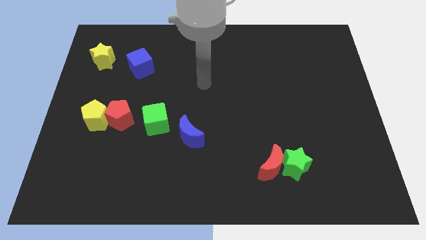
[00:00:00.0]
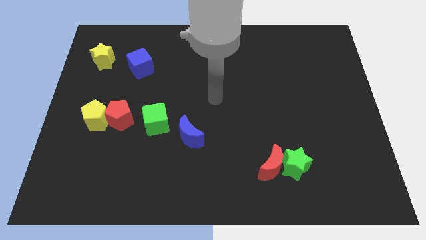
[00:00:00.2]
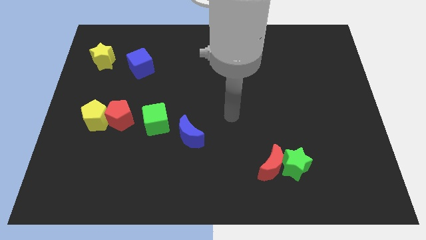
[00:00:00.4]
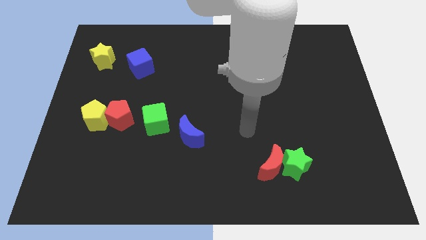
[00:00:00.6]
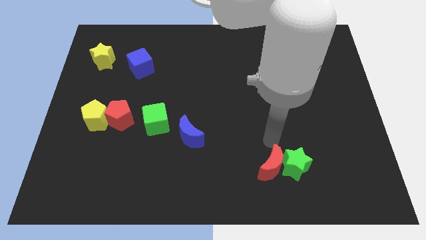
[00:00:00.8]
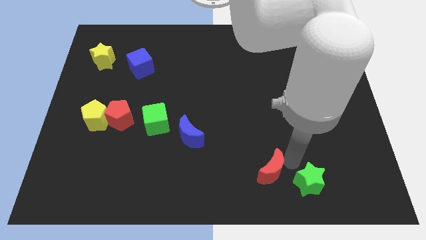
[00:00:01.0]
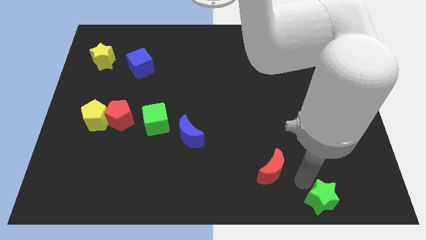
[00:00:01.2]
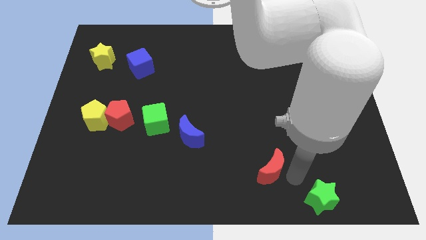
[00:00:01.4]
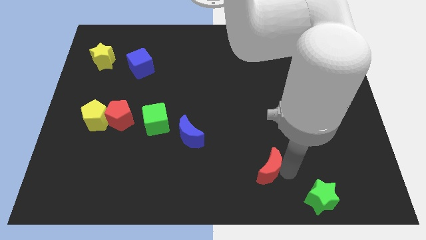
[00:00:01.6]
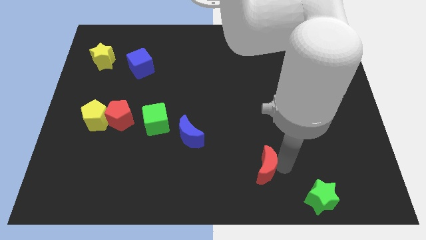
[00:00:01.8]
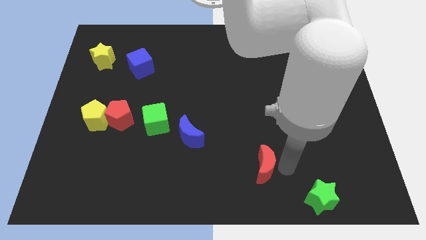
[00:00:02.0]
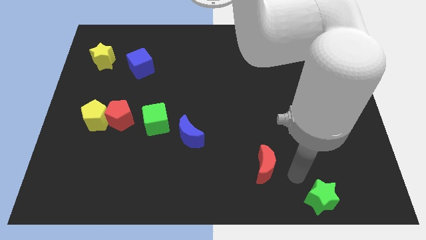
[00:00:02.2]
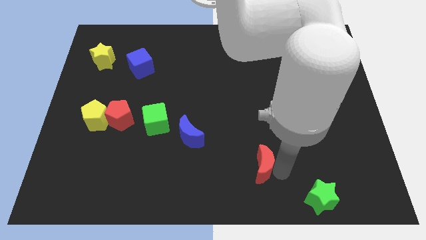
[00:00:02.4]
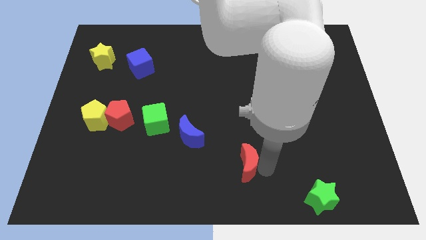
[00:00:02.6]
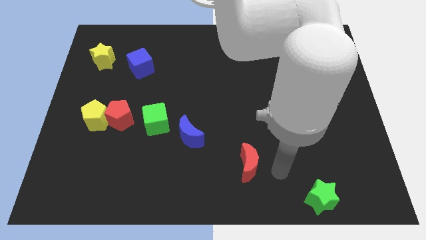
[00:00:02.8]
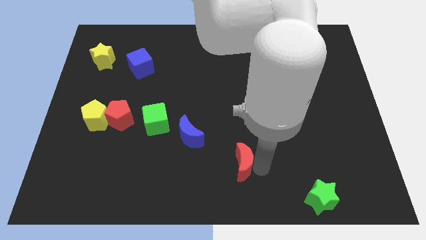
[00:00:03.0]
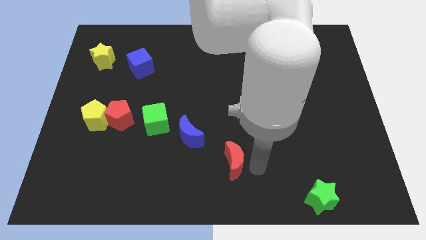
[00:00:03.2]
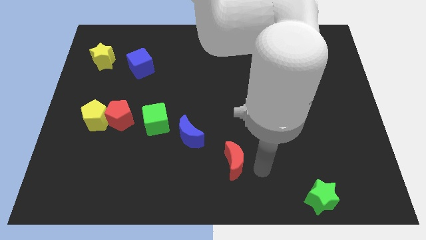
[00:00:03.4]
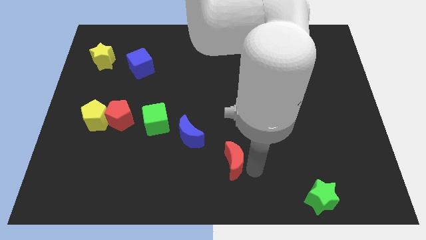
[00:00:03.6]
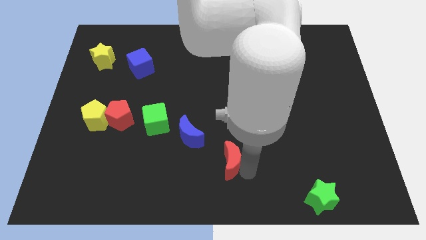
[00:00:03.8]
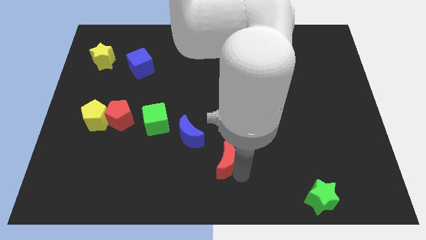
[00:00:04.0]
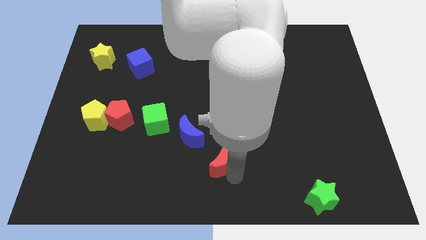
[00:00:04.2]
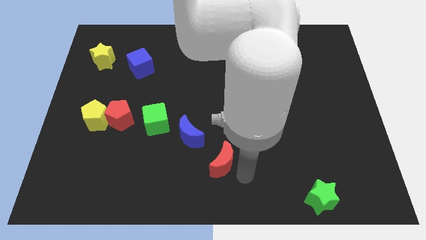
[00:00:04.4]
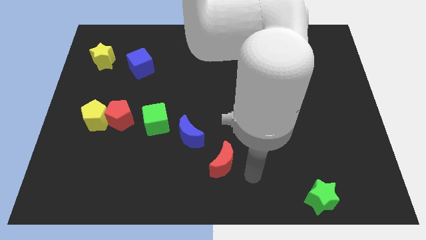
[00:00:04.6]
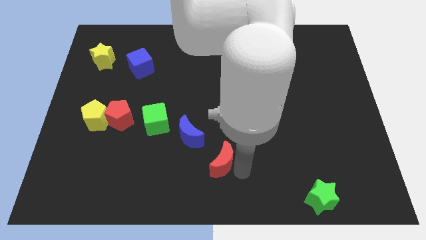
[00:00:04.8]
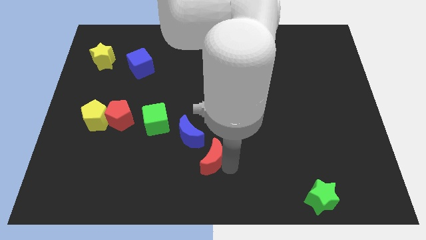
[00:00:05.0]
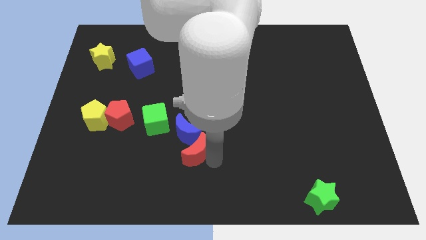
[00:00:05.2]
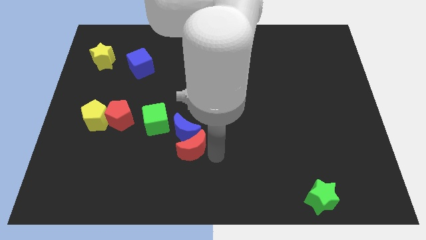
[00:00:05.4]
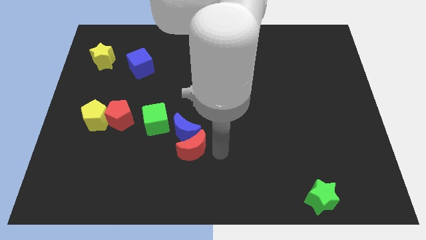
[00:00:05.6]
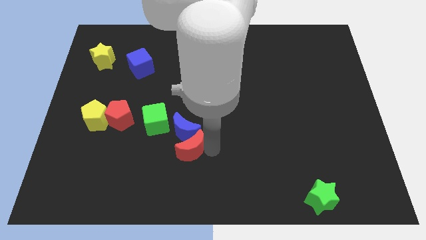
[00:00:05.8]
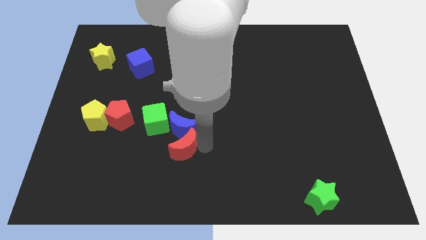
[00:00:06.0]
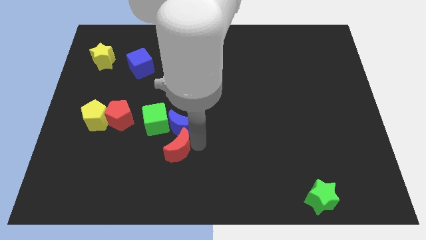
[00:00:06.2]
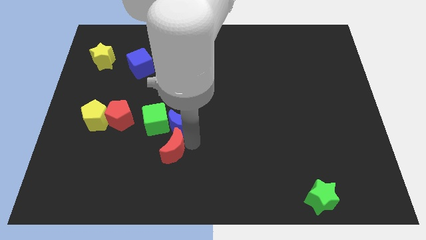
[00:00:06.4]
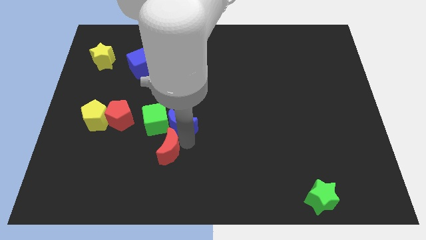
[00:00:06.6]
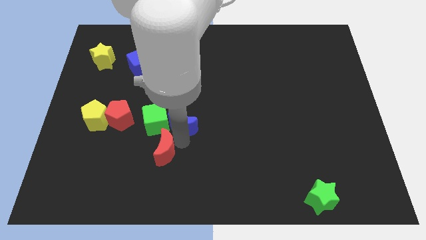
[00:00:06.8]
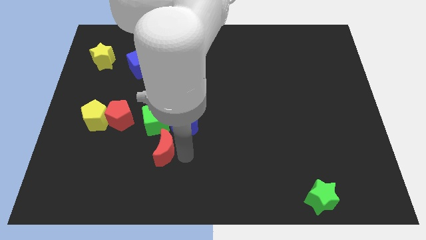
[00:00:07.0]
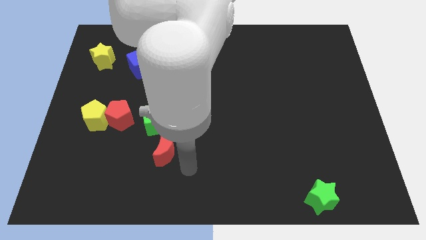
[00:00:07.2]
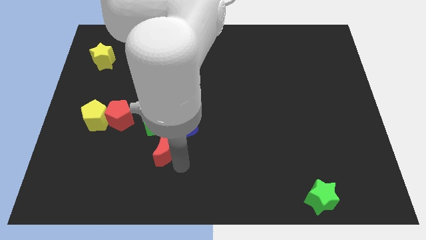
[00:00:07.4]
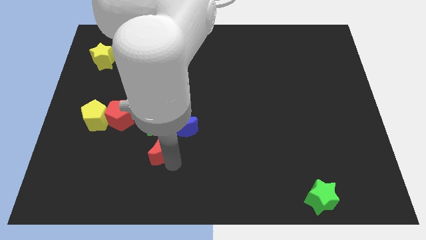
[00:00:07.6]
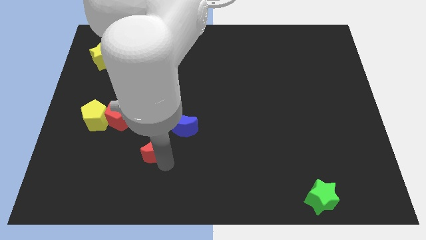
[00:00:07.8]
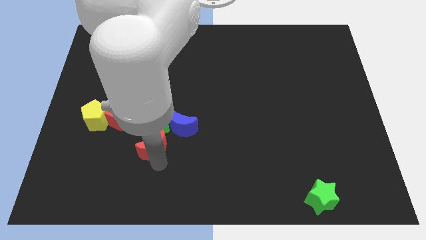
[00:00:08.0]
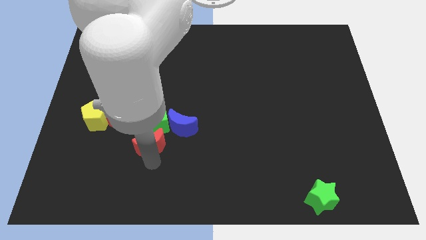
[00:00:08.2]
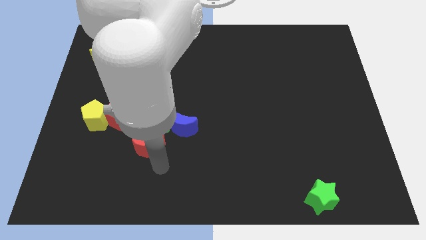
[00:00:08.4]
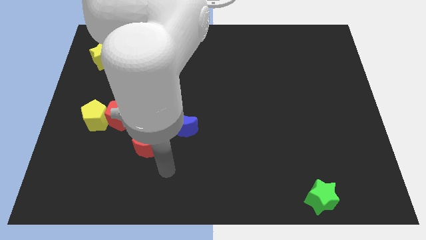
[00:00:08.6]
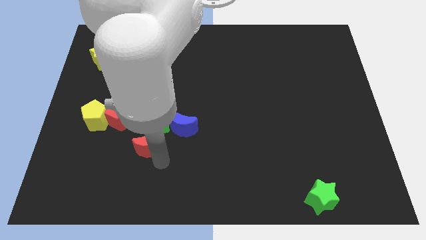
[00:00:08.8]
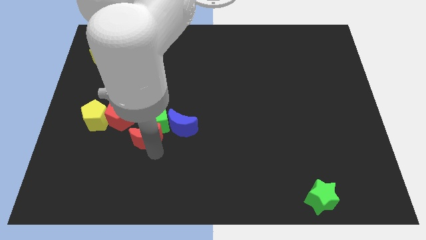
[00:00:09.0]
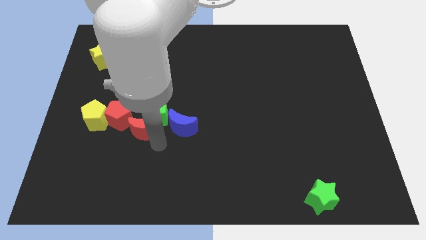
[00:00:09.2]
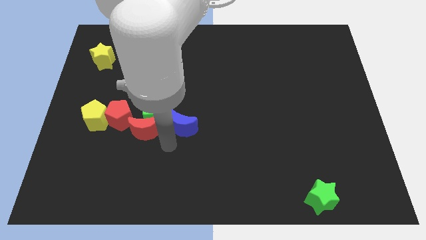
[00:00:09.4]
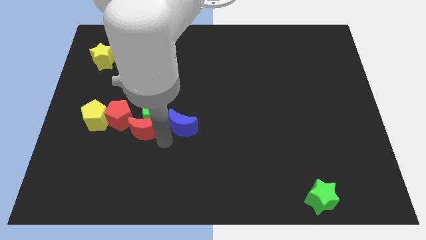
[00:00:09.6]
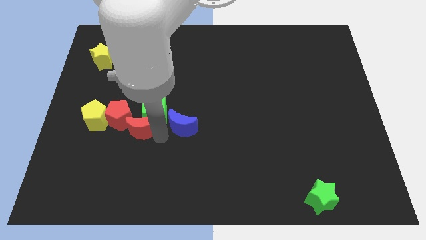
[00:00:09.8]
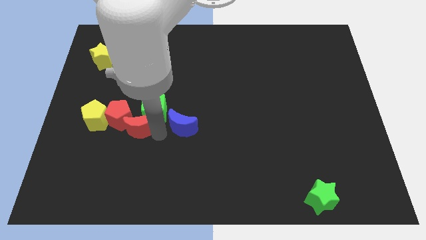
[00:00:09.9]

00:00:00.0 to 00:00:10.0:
slide the red moon next to the red pentagon

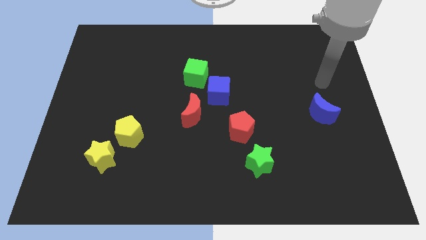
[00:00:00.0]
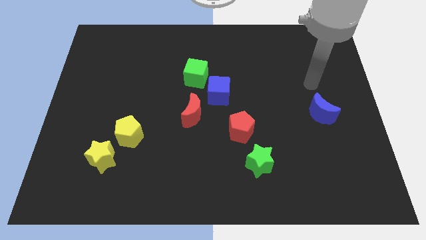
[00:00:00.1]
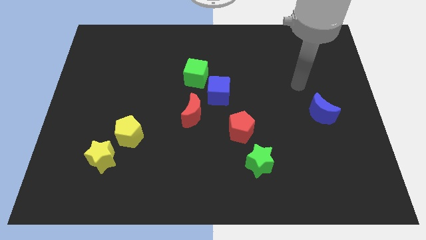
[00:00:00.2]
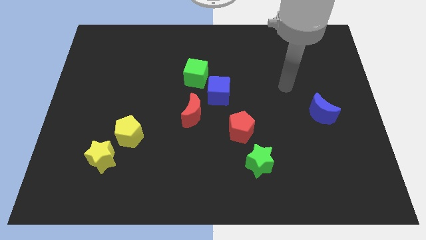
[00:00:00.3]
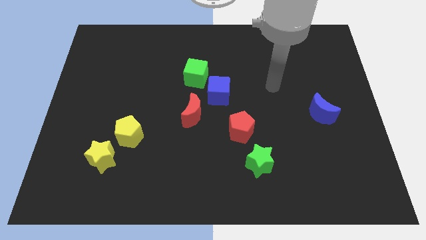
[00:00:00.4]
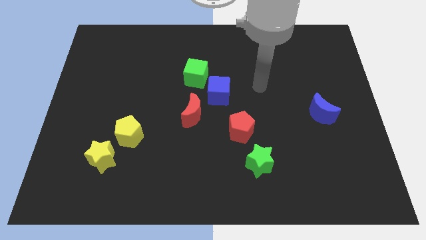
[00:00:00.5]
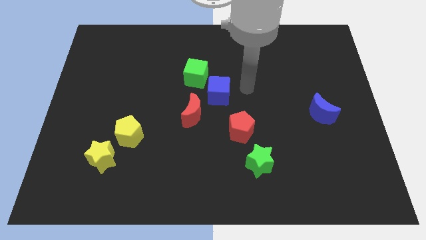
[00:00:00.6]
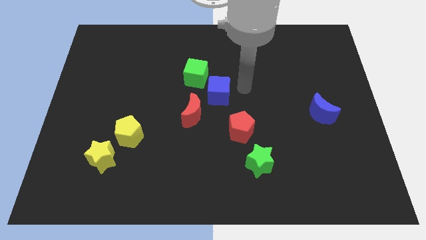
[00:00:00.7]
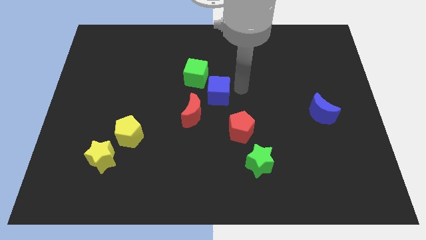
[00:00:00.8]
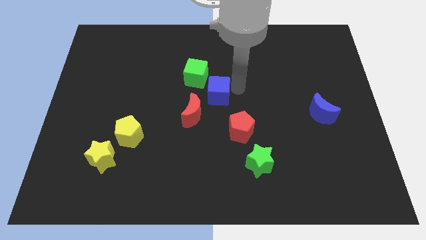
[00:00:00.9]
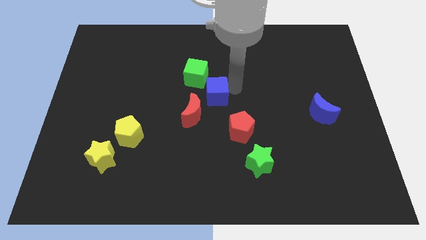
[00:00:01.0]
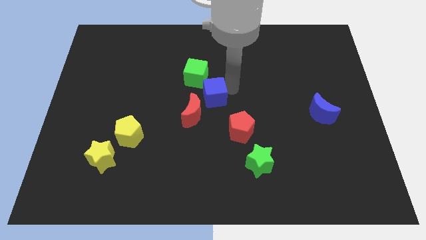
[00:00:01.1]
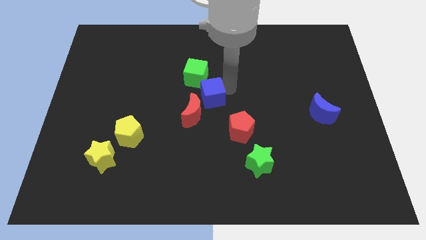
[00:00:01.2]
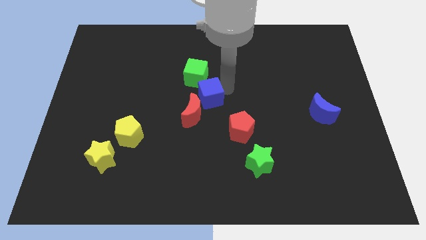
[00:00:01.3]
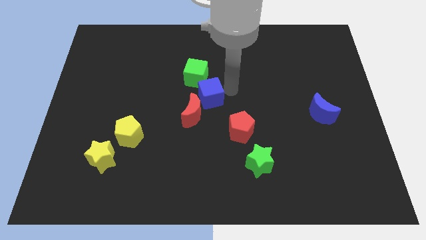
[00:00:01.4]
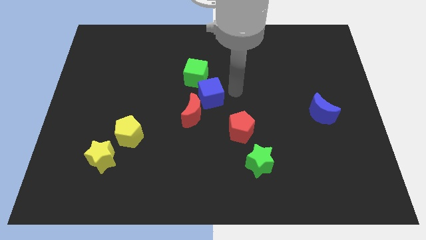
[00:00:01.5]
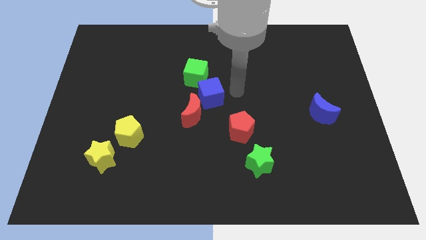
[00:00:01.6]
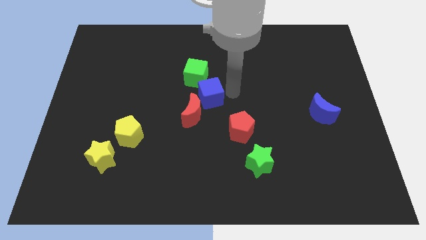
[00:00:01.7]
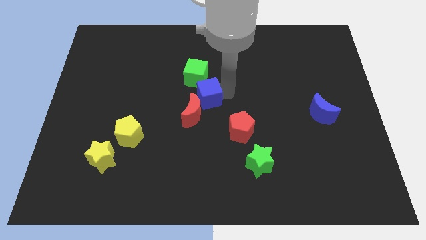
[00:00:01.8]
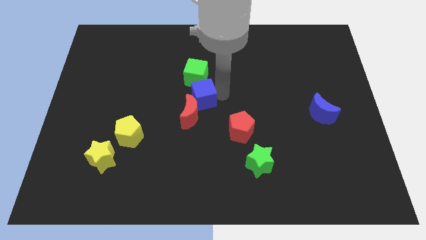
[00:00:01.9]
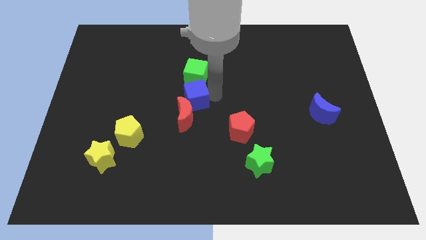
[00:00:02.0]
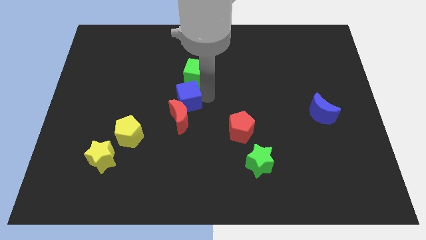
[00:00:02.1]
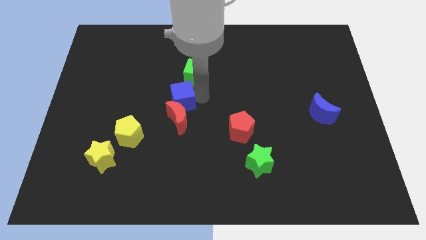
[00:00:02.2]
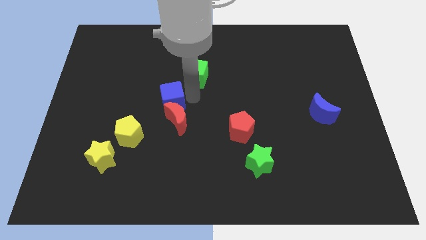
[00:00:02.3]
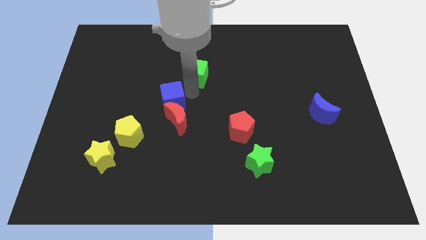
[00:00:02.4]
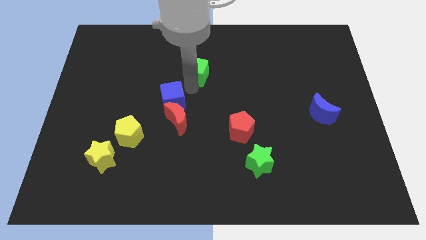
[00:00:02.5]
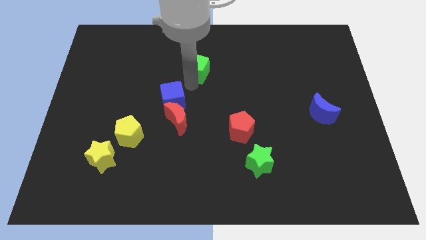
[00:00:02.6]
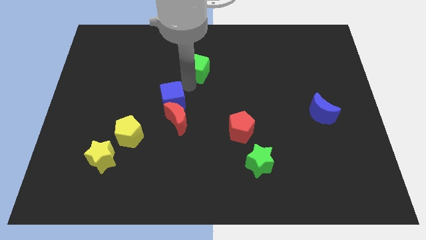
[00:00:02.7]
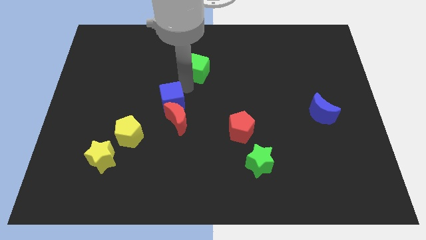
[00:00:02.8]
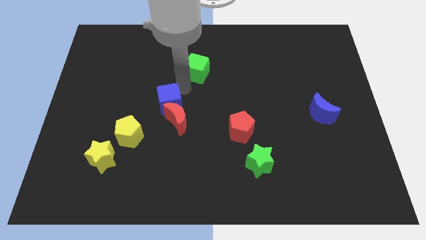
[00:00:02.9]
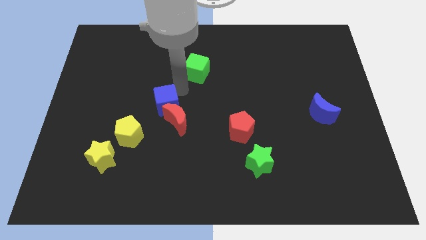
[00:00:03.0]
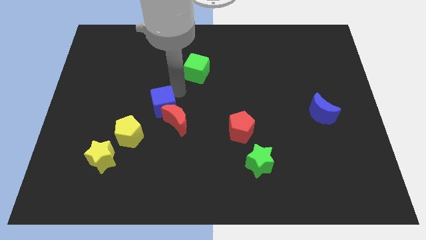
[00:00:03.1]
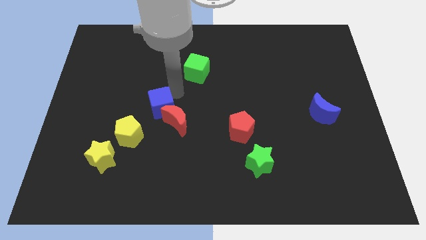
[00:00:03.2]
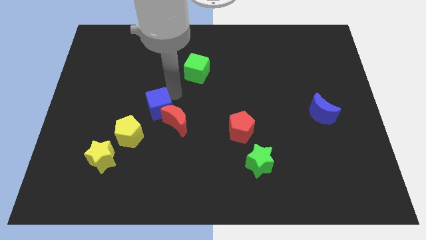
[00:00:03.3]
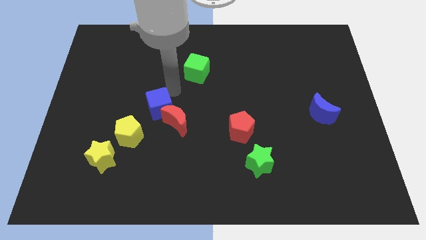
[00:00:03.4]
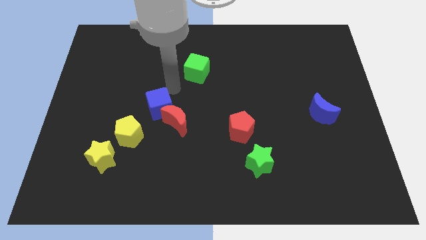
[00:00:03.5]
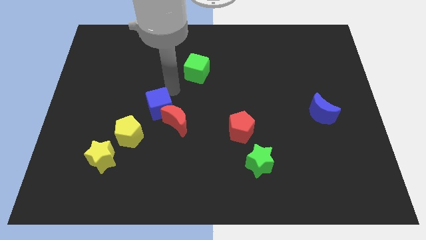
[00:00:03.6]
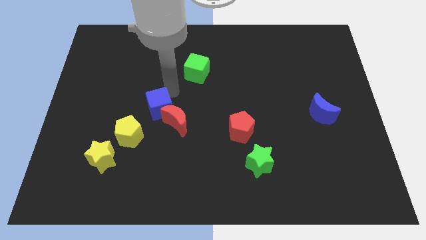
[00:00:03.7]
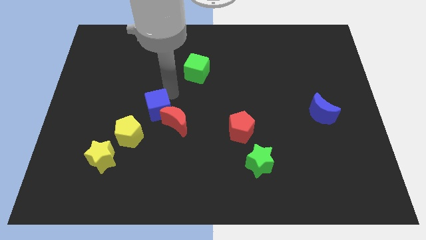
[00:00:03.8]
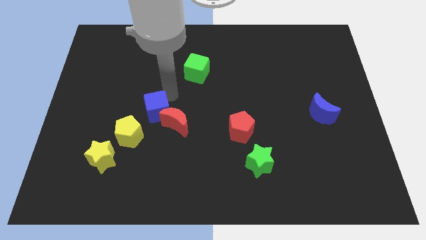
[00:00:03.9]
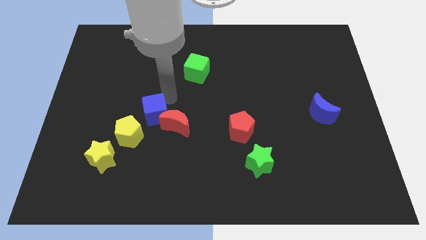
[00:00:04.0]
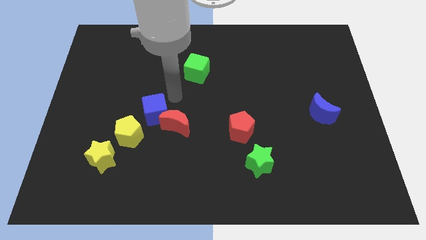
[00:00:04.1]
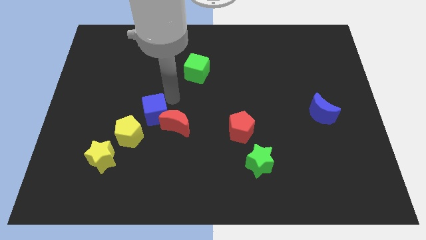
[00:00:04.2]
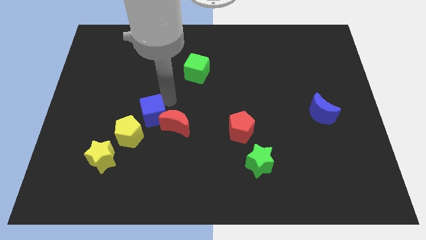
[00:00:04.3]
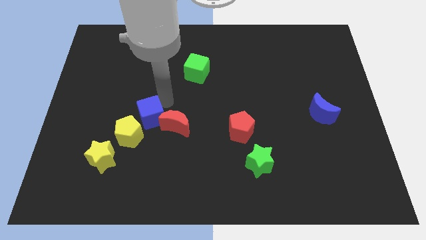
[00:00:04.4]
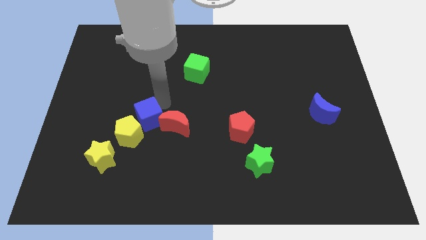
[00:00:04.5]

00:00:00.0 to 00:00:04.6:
move the blue cube to the yellow pentagon
